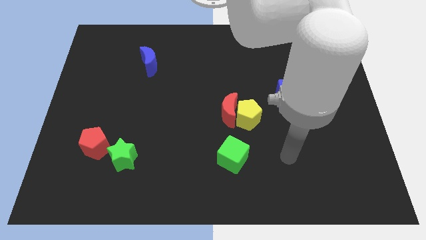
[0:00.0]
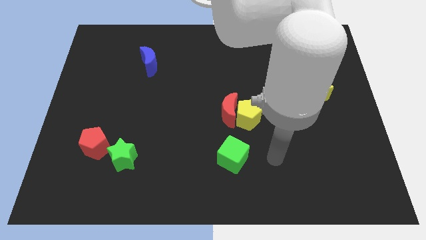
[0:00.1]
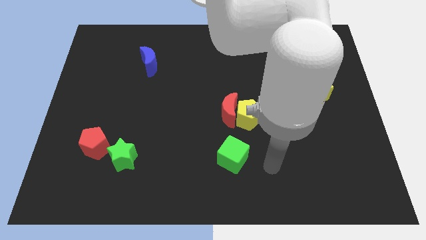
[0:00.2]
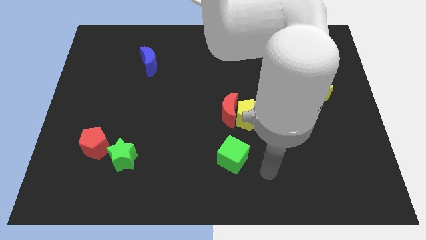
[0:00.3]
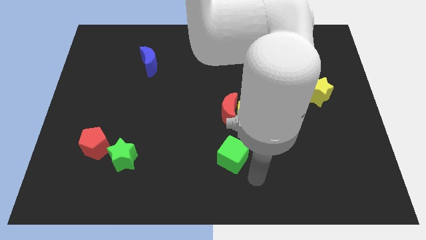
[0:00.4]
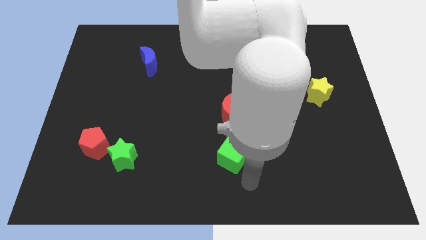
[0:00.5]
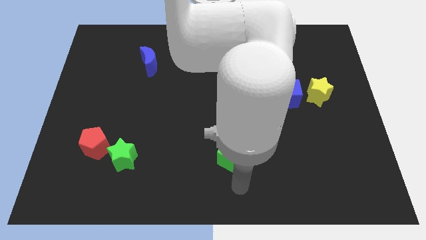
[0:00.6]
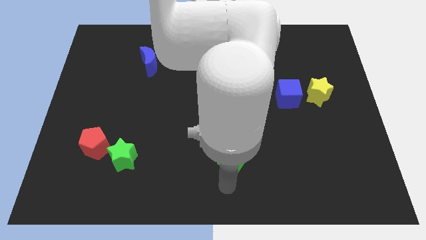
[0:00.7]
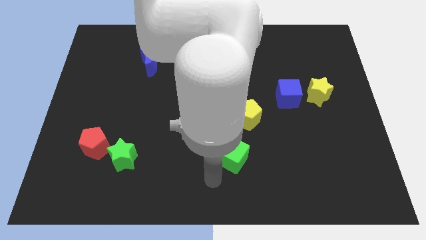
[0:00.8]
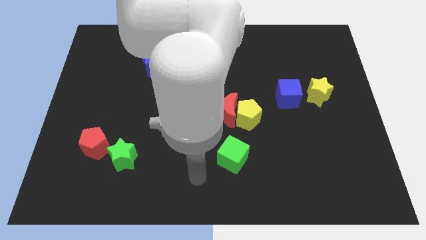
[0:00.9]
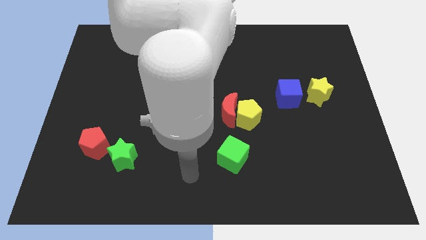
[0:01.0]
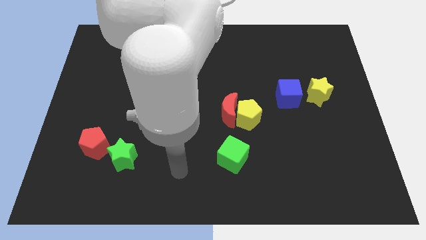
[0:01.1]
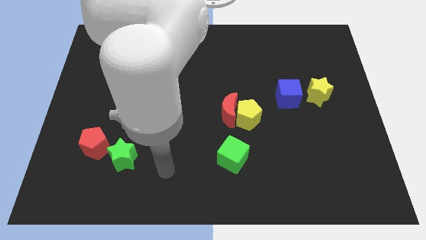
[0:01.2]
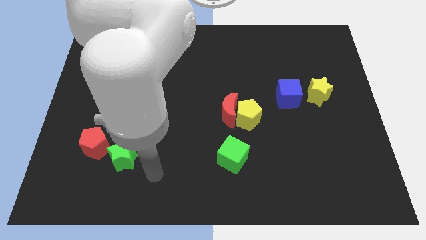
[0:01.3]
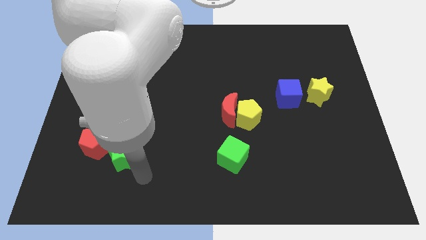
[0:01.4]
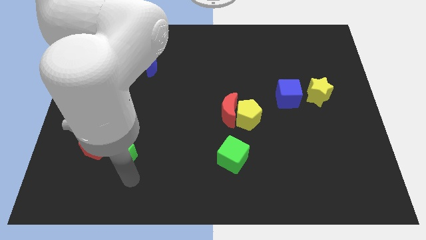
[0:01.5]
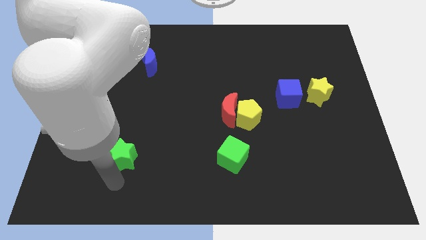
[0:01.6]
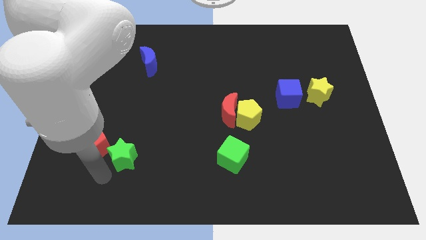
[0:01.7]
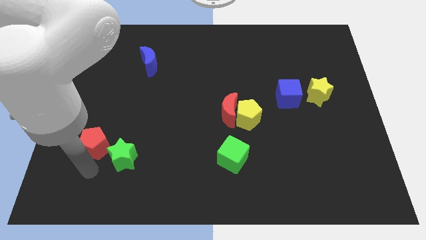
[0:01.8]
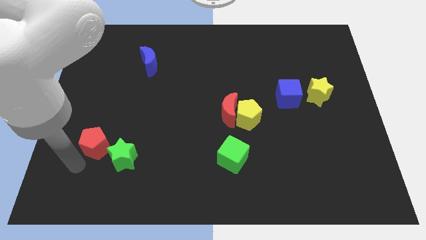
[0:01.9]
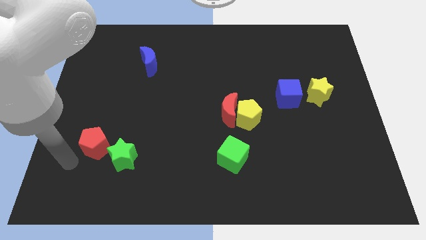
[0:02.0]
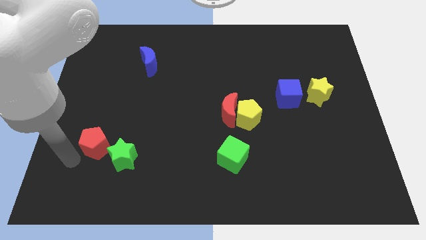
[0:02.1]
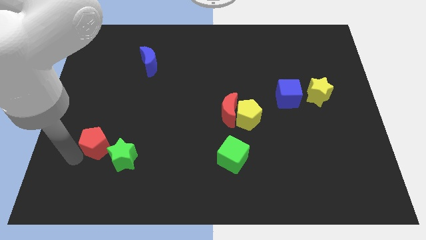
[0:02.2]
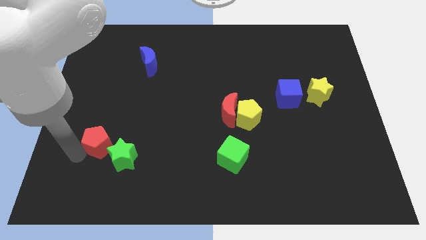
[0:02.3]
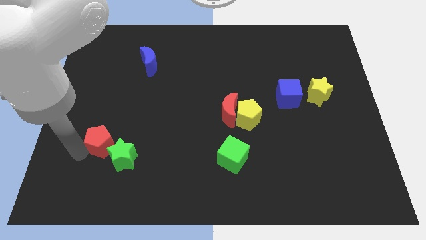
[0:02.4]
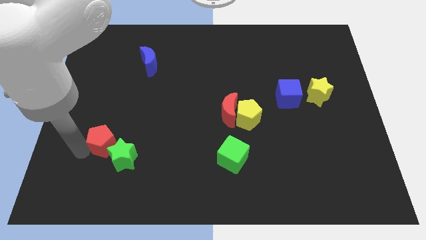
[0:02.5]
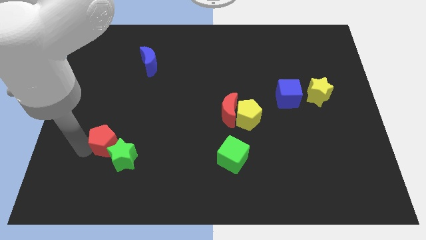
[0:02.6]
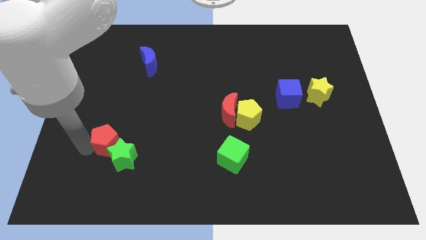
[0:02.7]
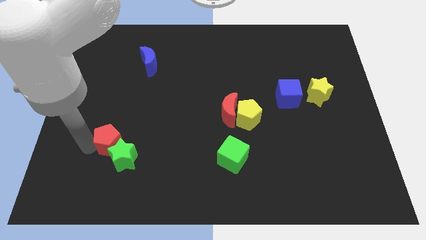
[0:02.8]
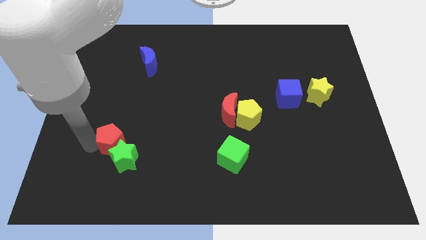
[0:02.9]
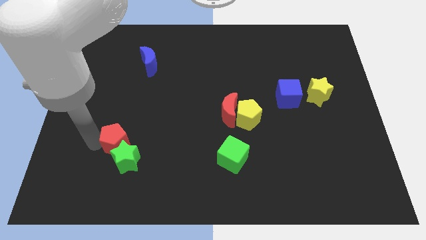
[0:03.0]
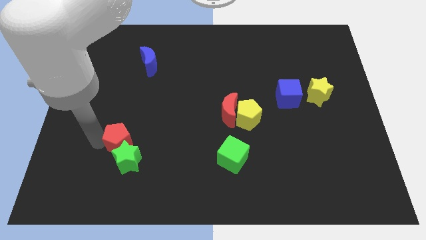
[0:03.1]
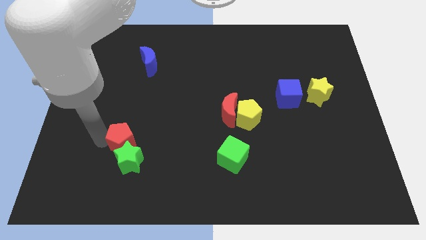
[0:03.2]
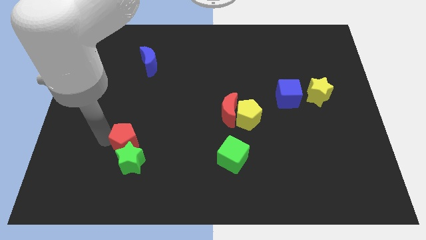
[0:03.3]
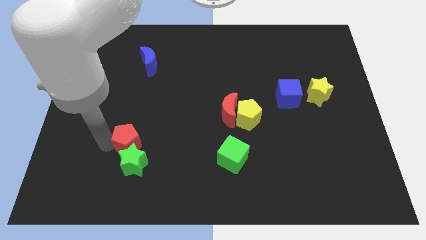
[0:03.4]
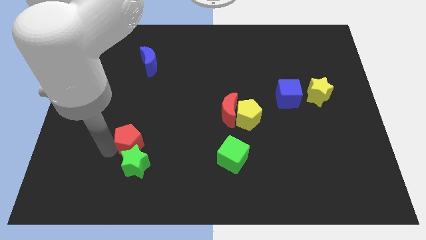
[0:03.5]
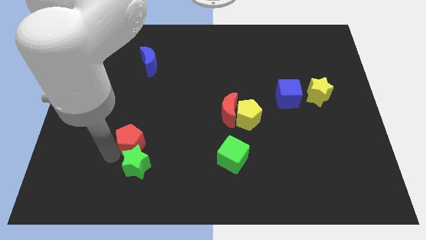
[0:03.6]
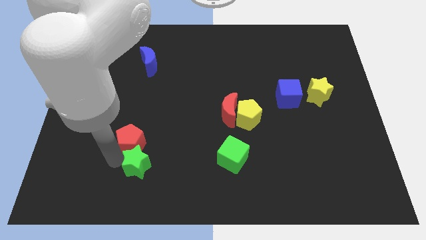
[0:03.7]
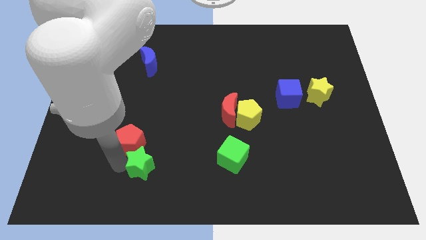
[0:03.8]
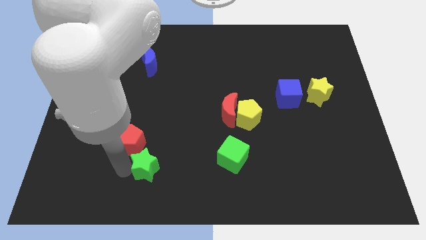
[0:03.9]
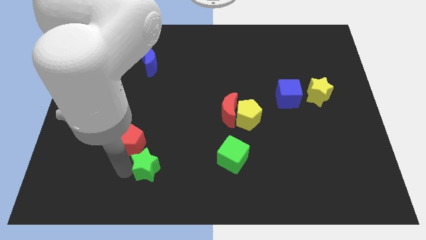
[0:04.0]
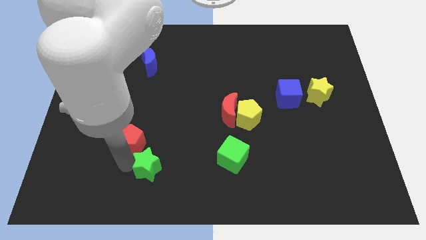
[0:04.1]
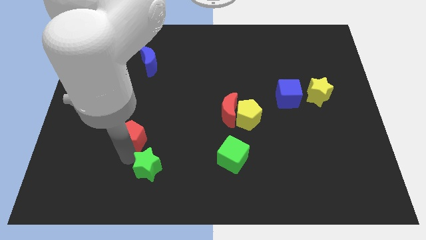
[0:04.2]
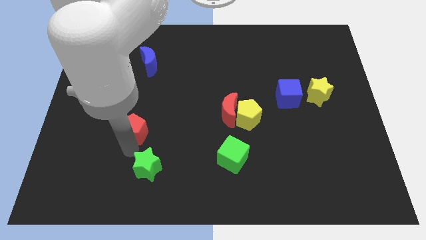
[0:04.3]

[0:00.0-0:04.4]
push the red pentagon a bit upwards and then to the right

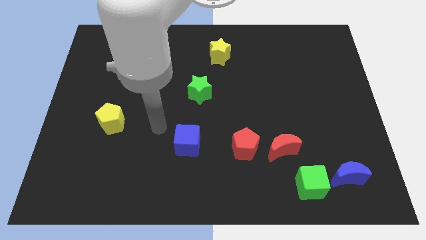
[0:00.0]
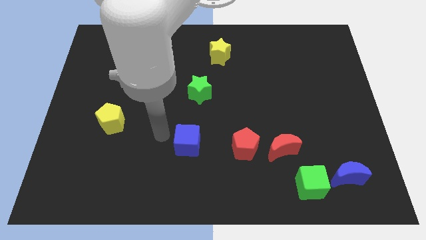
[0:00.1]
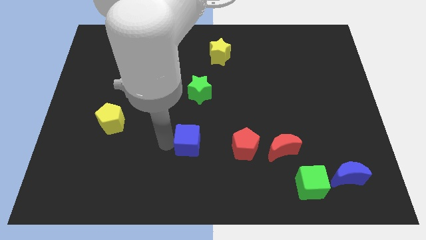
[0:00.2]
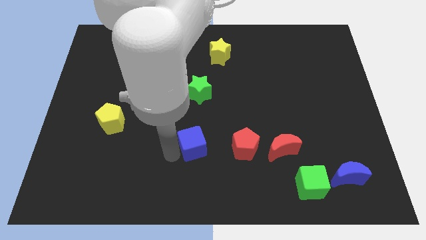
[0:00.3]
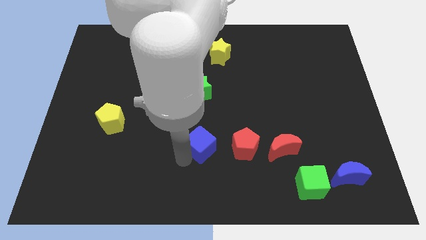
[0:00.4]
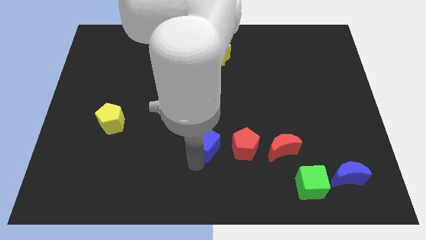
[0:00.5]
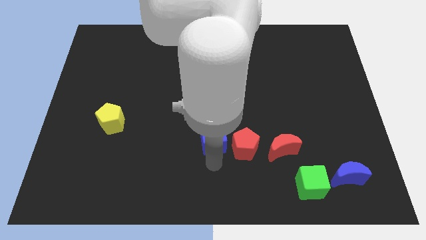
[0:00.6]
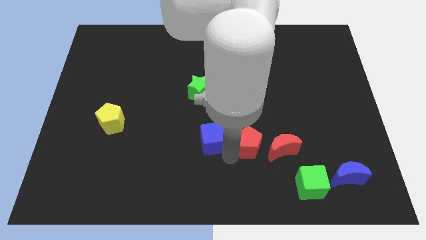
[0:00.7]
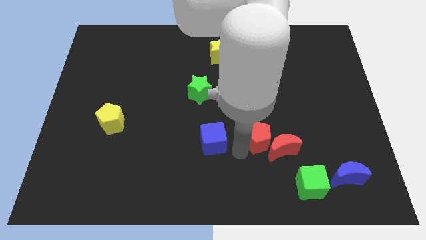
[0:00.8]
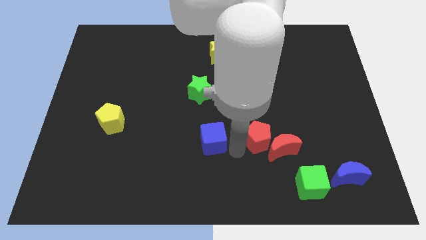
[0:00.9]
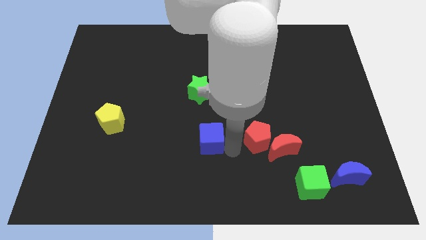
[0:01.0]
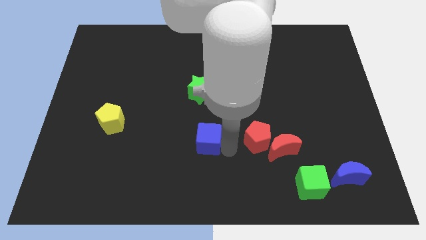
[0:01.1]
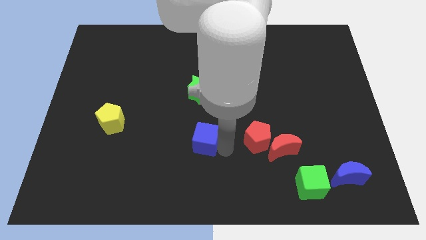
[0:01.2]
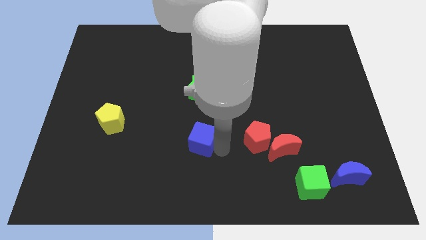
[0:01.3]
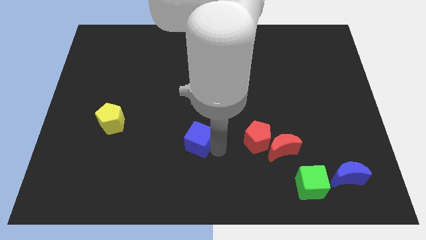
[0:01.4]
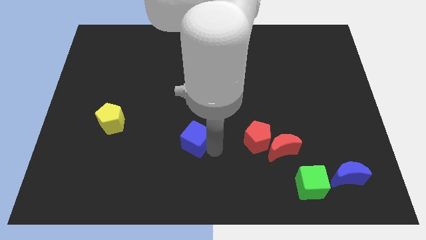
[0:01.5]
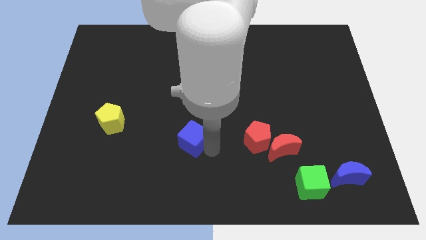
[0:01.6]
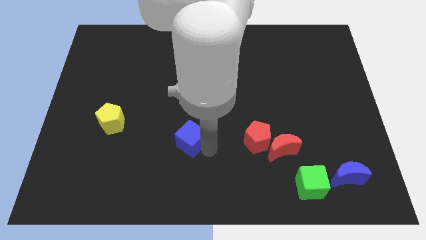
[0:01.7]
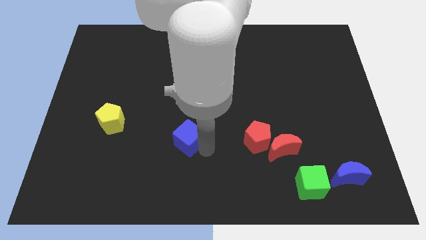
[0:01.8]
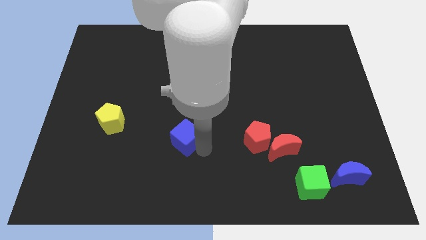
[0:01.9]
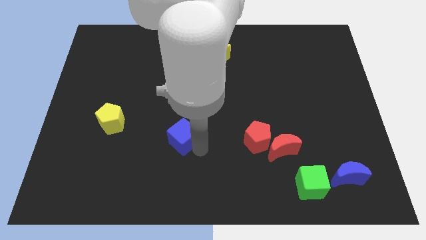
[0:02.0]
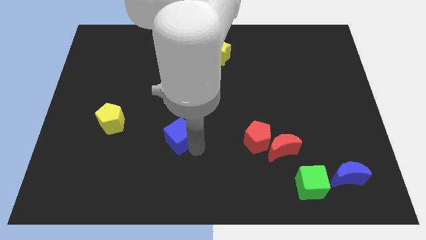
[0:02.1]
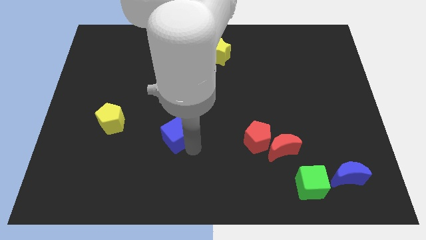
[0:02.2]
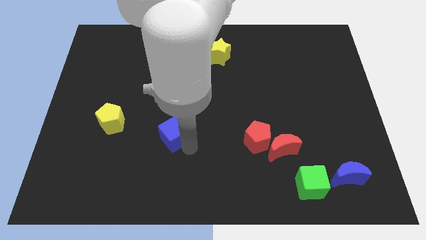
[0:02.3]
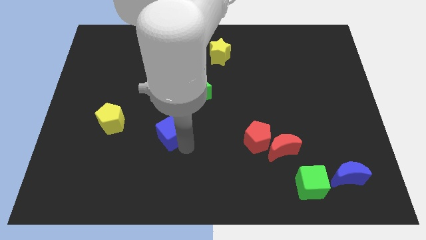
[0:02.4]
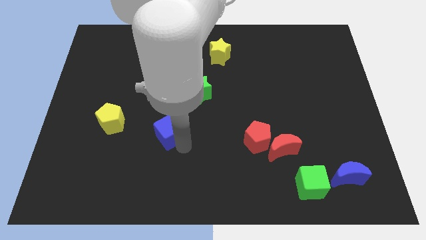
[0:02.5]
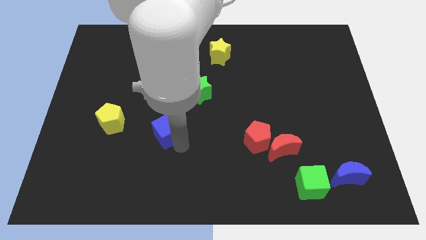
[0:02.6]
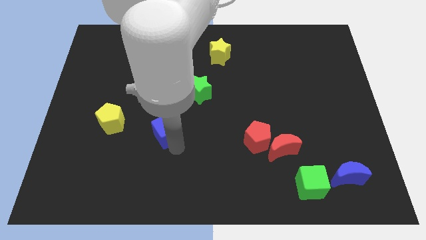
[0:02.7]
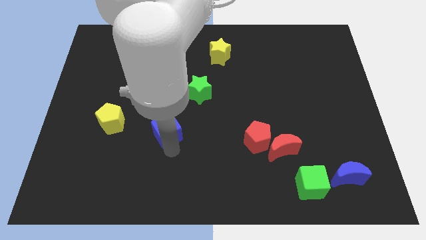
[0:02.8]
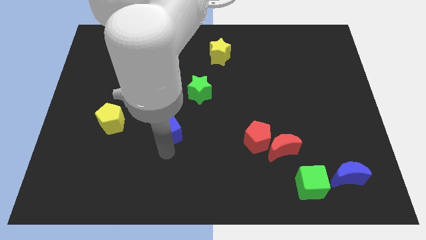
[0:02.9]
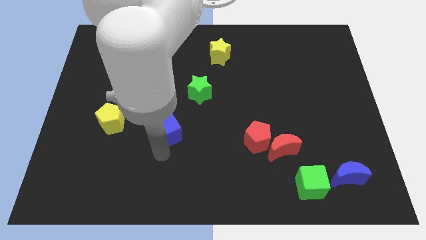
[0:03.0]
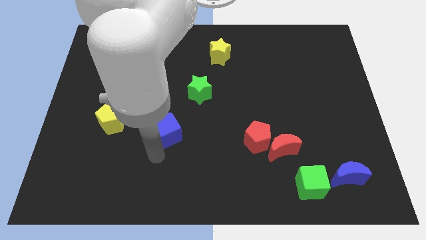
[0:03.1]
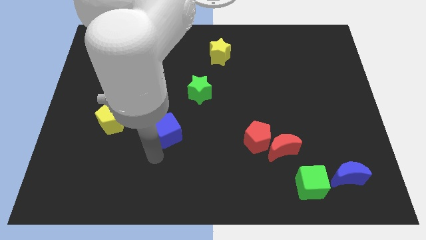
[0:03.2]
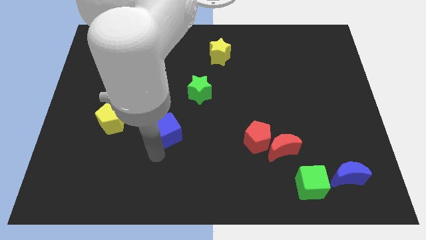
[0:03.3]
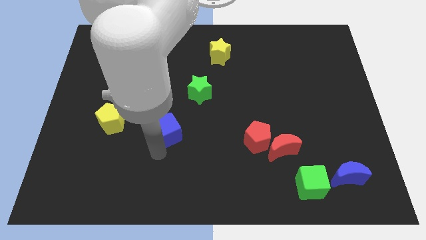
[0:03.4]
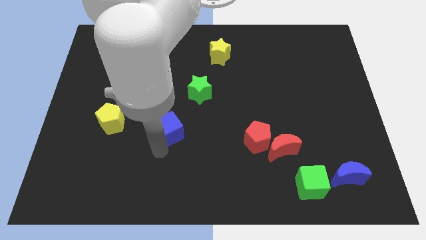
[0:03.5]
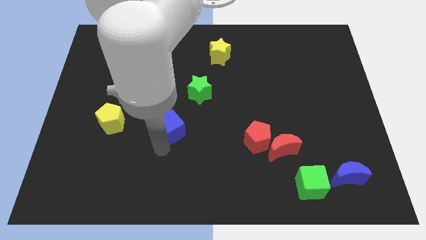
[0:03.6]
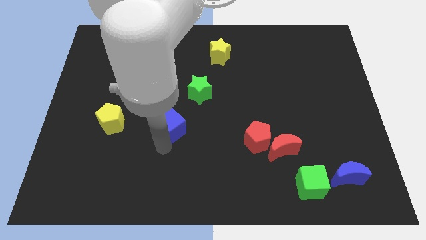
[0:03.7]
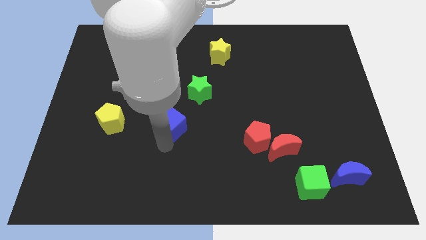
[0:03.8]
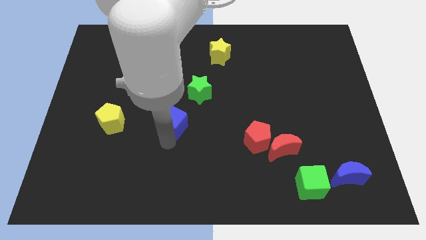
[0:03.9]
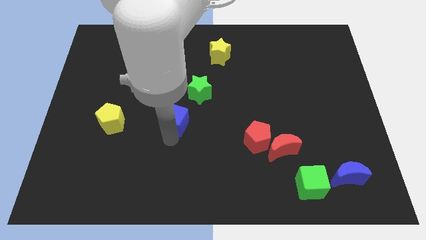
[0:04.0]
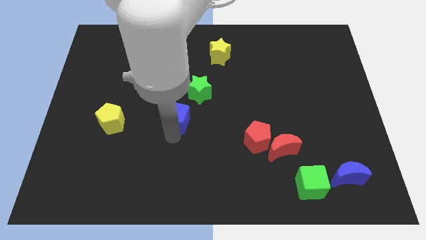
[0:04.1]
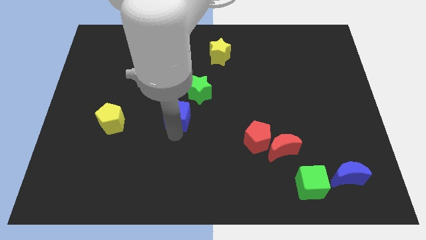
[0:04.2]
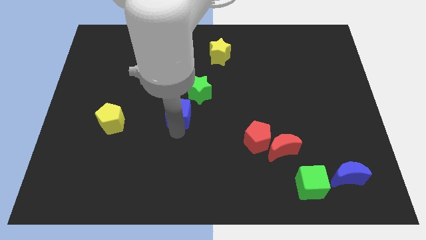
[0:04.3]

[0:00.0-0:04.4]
move the blue cube a little bit up
